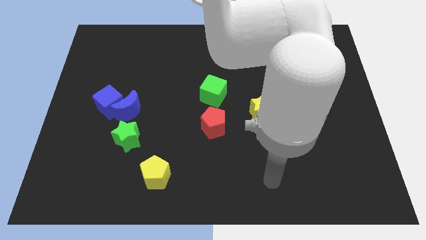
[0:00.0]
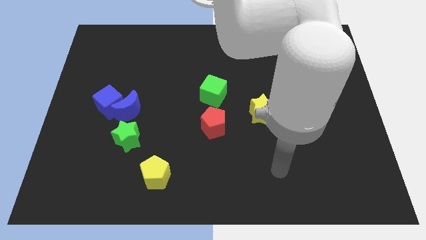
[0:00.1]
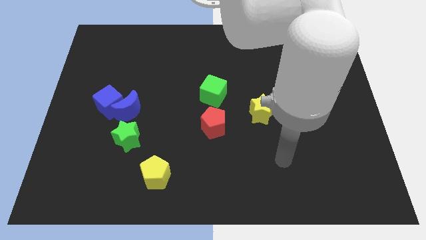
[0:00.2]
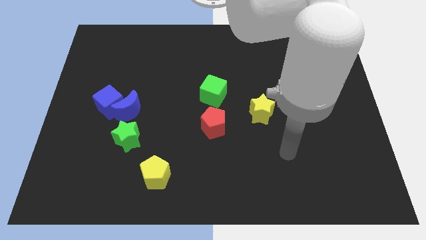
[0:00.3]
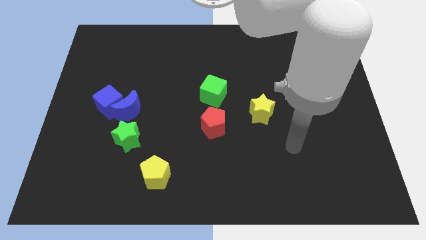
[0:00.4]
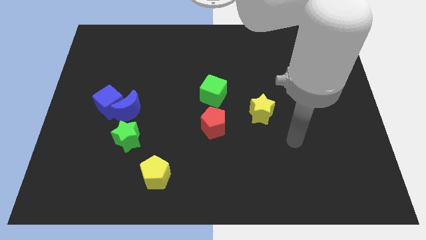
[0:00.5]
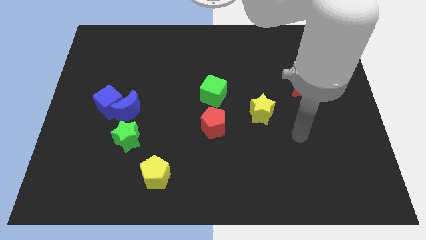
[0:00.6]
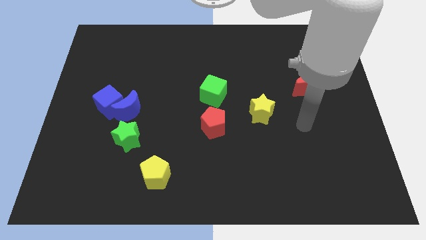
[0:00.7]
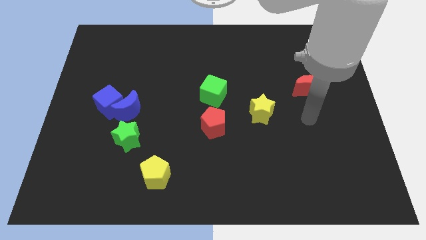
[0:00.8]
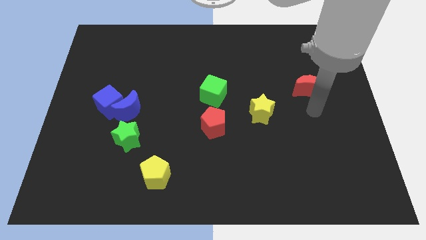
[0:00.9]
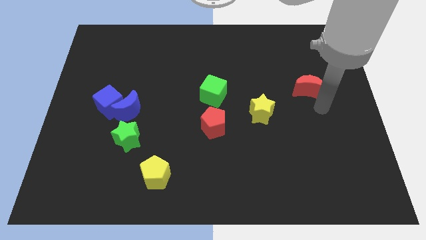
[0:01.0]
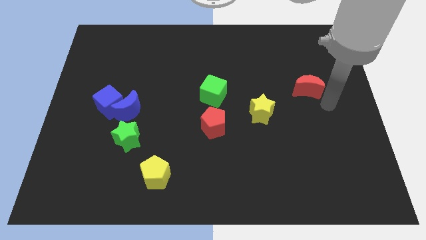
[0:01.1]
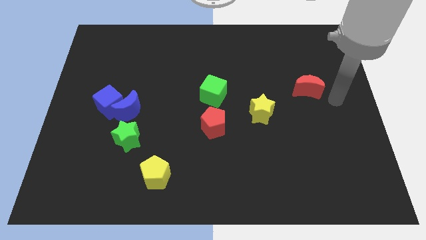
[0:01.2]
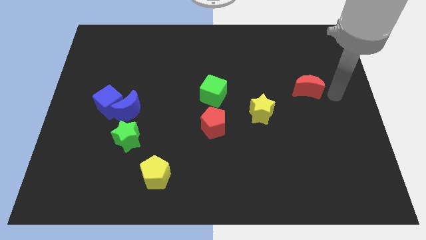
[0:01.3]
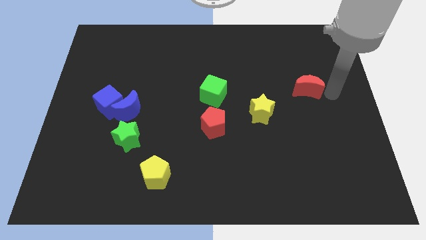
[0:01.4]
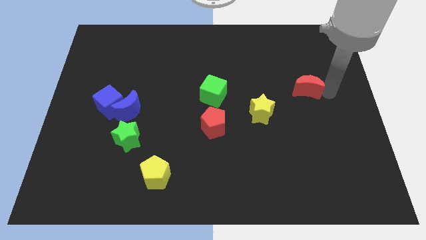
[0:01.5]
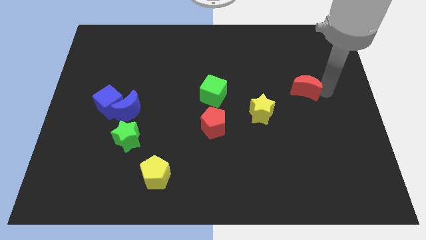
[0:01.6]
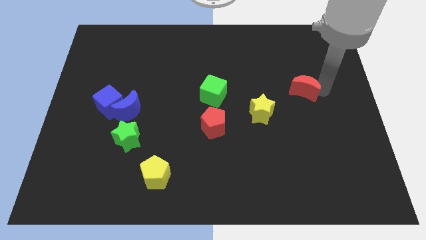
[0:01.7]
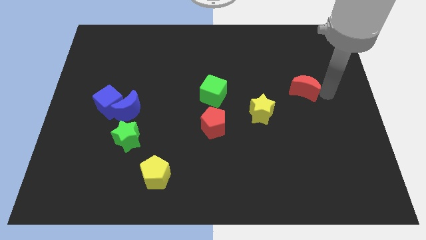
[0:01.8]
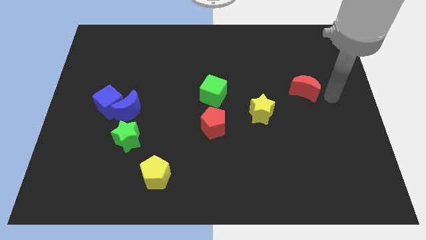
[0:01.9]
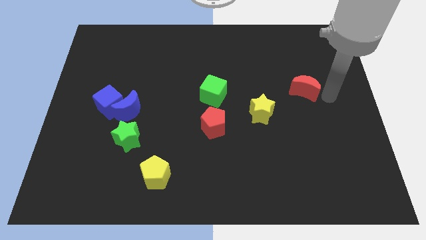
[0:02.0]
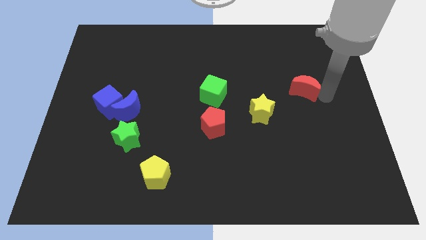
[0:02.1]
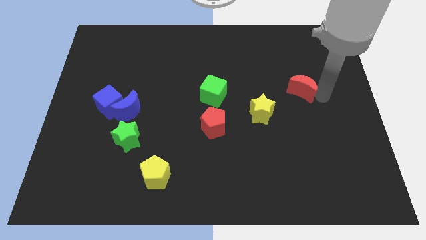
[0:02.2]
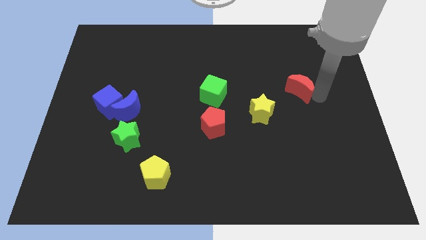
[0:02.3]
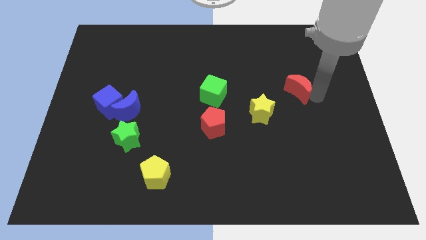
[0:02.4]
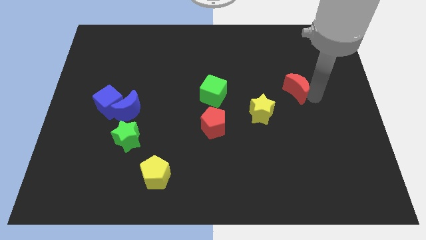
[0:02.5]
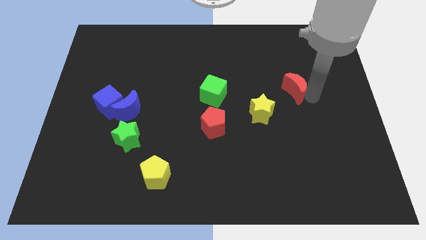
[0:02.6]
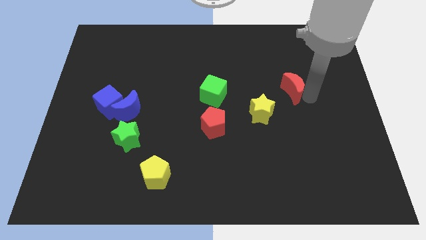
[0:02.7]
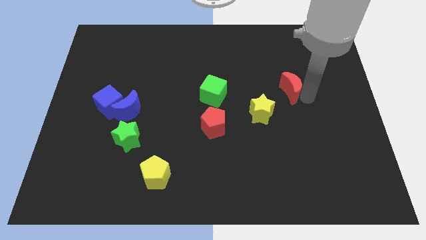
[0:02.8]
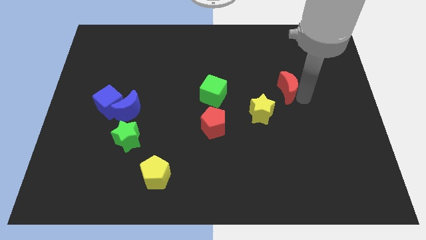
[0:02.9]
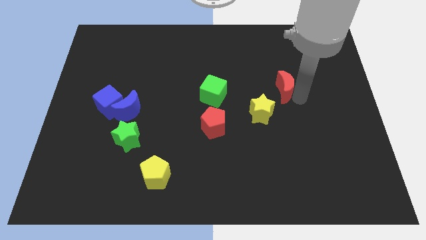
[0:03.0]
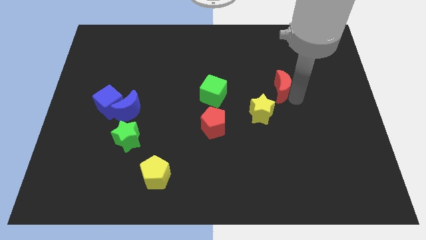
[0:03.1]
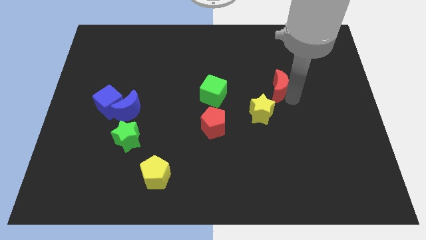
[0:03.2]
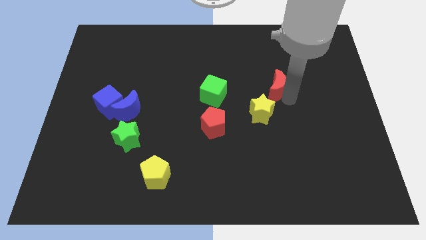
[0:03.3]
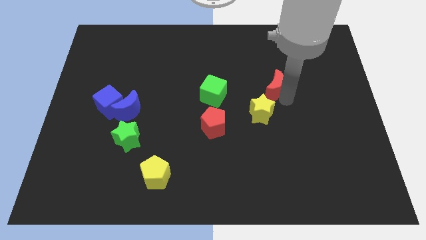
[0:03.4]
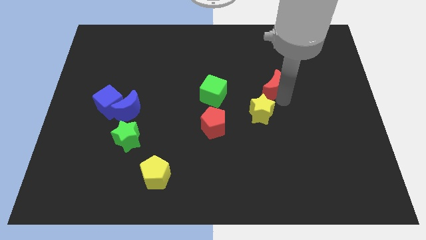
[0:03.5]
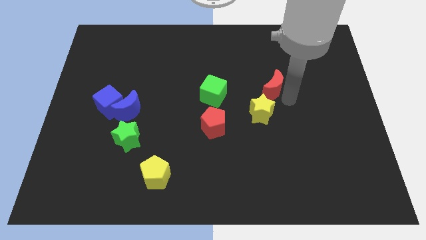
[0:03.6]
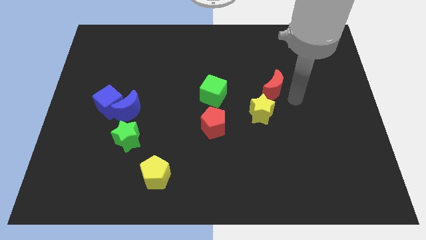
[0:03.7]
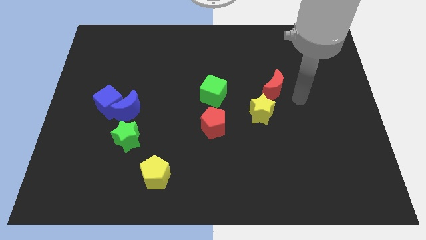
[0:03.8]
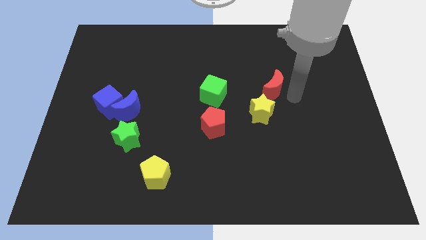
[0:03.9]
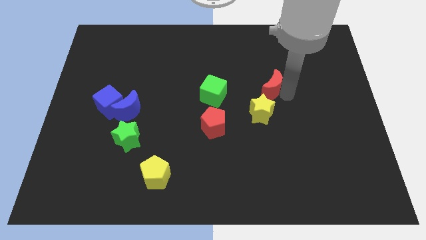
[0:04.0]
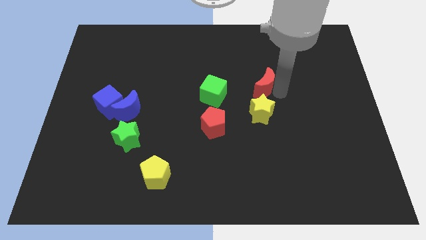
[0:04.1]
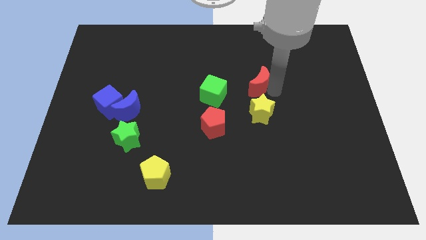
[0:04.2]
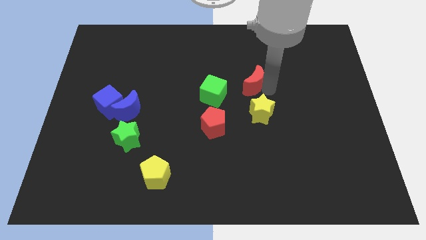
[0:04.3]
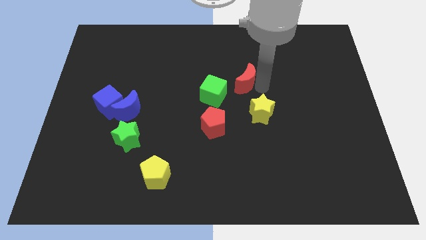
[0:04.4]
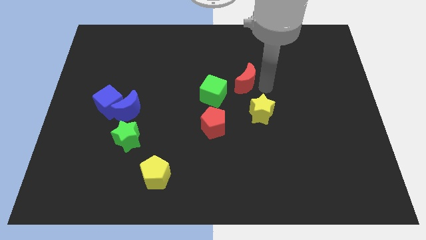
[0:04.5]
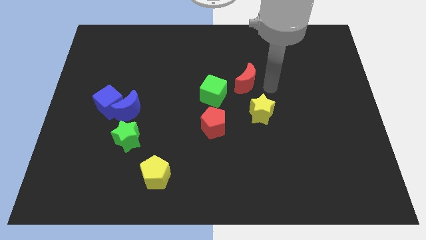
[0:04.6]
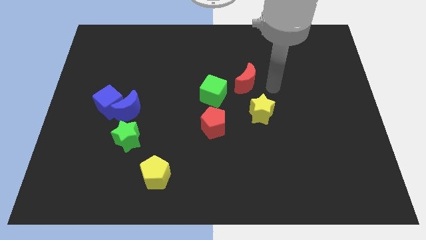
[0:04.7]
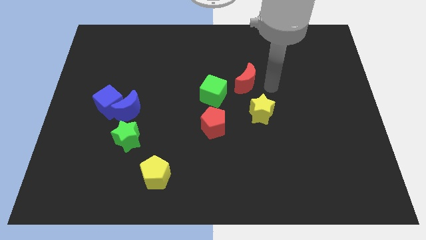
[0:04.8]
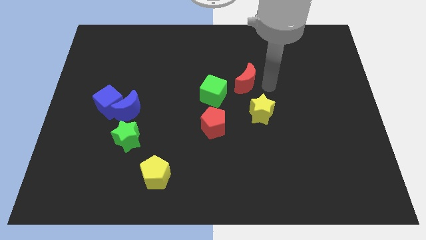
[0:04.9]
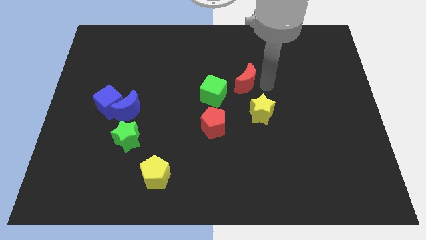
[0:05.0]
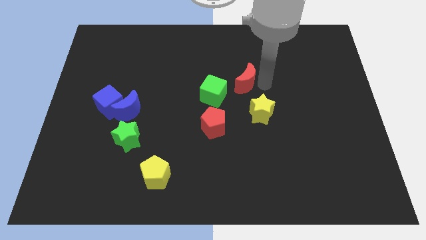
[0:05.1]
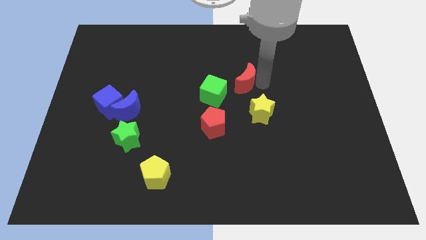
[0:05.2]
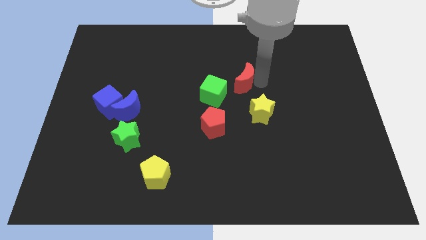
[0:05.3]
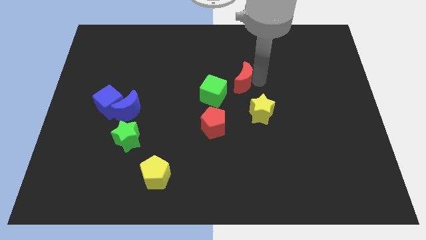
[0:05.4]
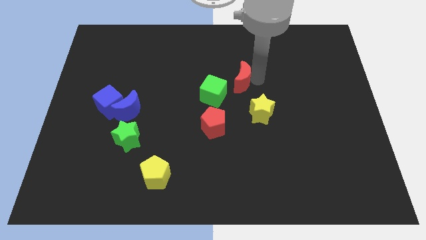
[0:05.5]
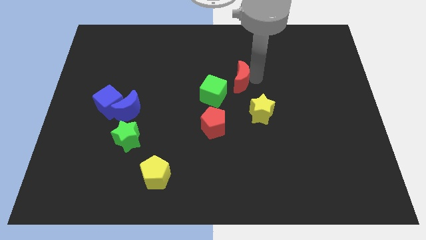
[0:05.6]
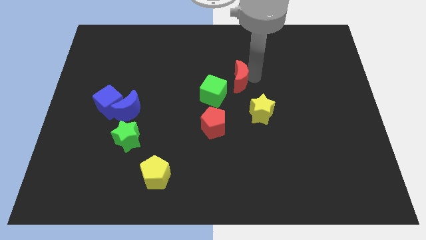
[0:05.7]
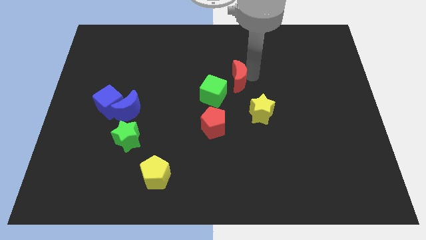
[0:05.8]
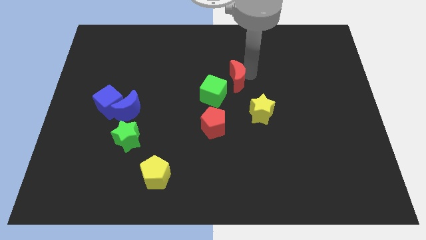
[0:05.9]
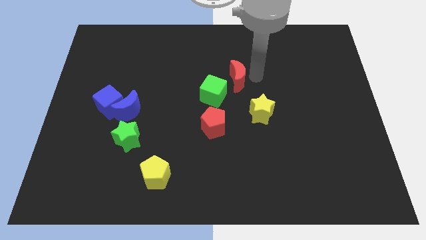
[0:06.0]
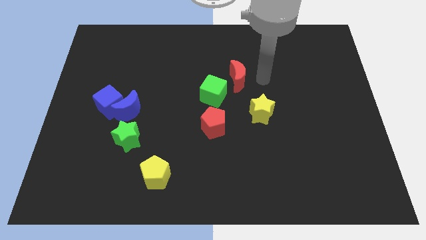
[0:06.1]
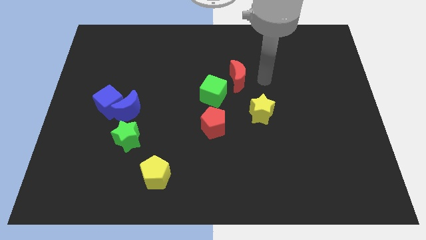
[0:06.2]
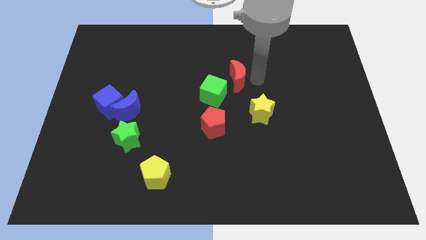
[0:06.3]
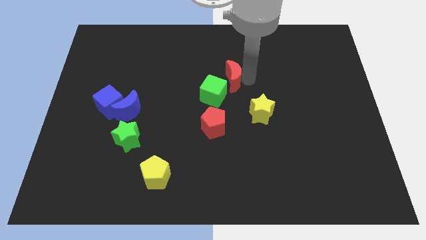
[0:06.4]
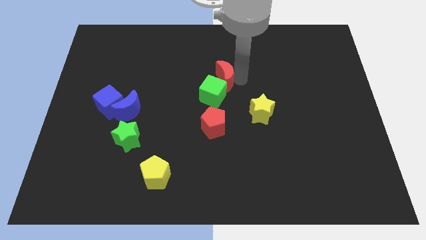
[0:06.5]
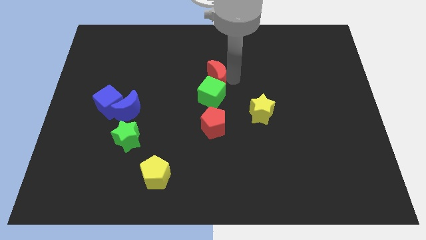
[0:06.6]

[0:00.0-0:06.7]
slide the red moon to the left

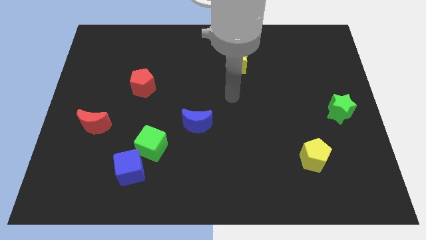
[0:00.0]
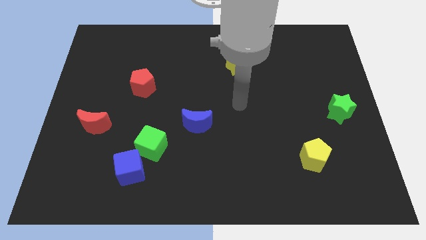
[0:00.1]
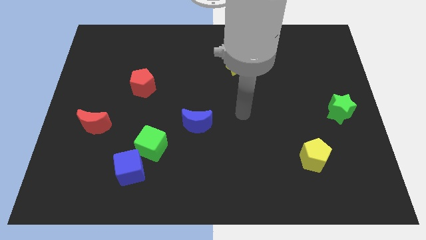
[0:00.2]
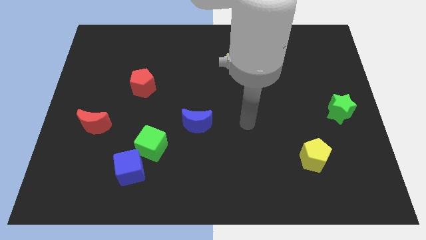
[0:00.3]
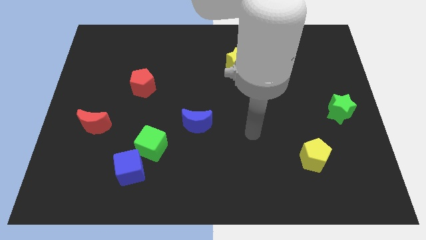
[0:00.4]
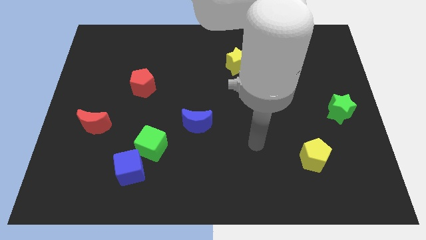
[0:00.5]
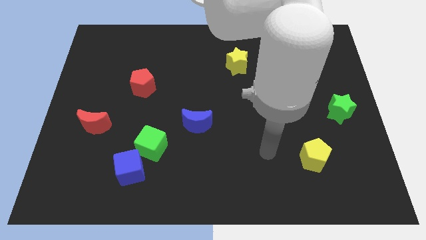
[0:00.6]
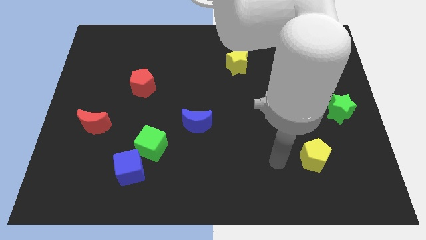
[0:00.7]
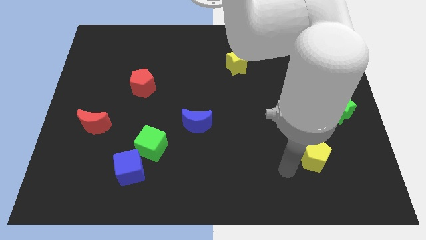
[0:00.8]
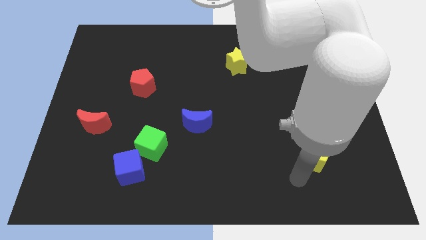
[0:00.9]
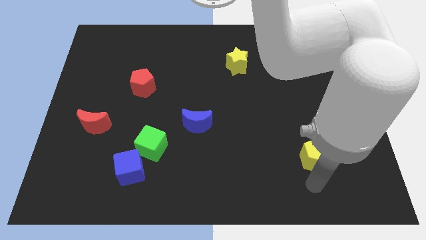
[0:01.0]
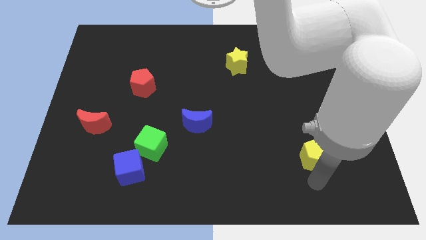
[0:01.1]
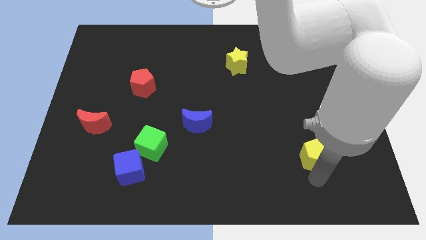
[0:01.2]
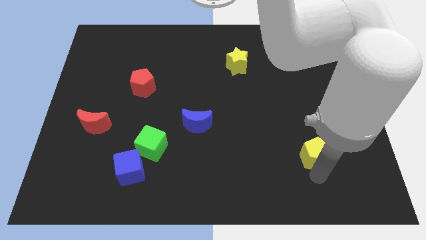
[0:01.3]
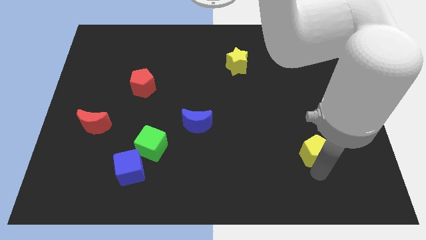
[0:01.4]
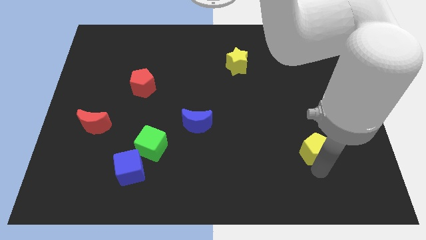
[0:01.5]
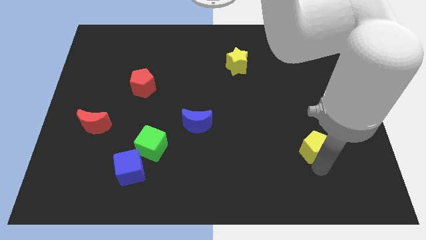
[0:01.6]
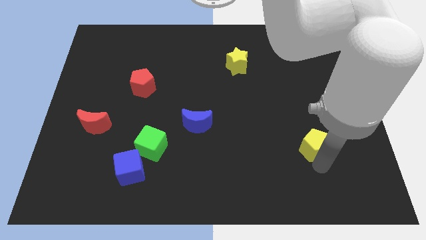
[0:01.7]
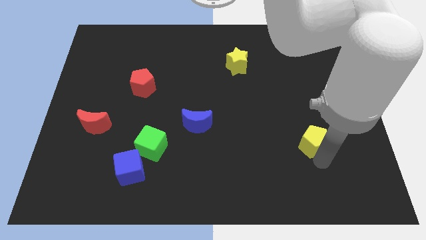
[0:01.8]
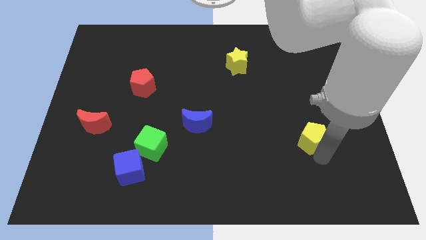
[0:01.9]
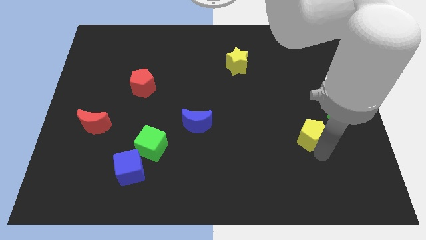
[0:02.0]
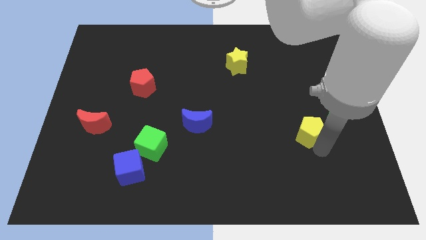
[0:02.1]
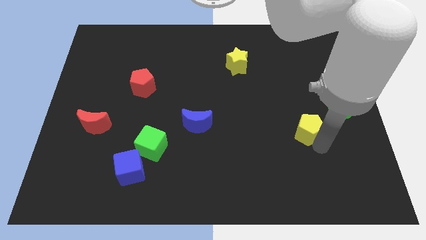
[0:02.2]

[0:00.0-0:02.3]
slightly move the yellow pentagon upwards
